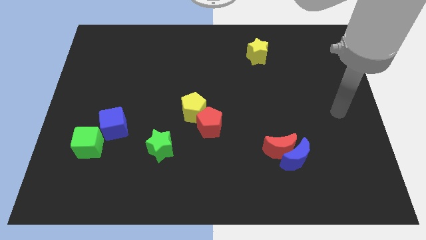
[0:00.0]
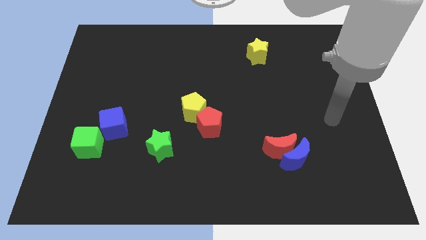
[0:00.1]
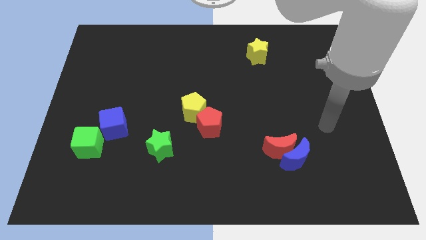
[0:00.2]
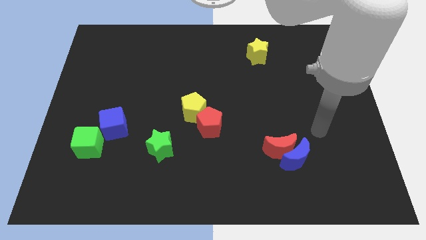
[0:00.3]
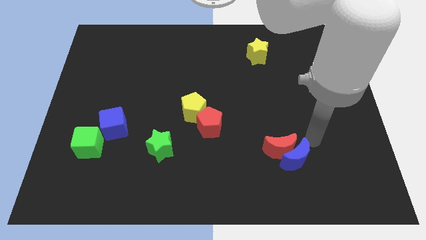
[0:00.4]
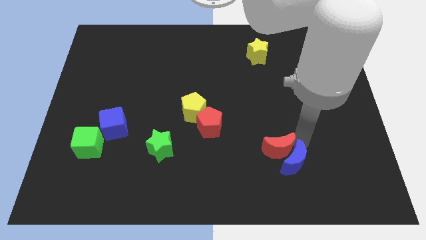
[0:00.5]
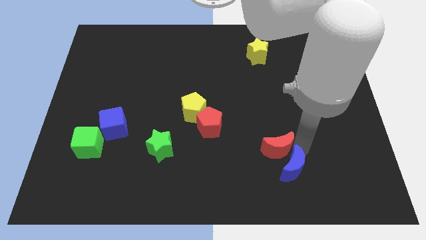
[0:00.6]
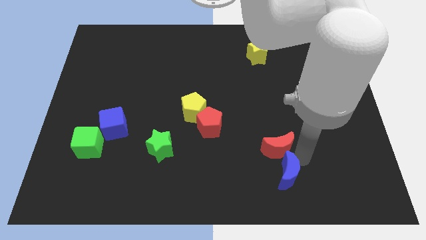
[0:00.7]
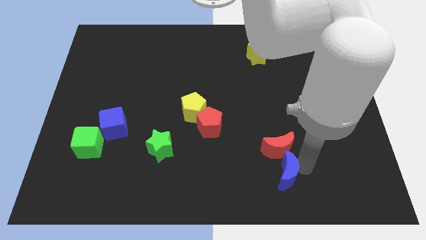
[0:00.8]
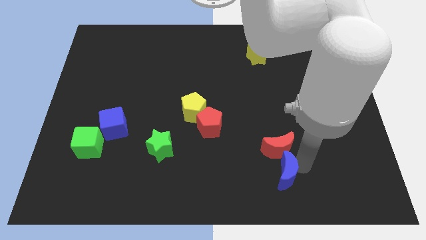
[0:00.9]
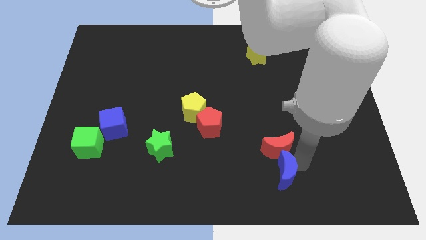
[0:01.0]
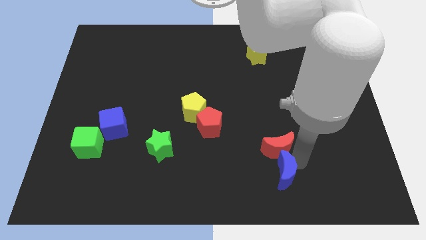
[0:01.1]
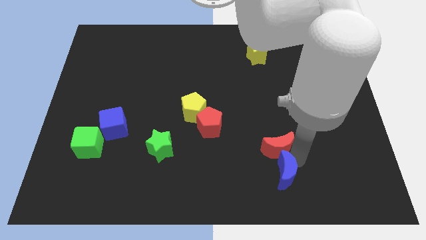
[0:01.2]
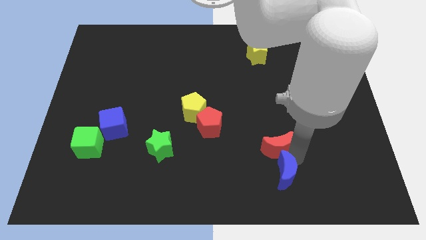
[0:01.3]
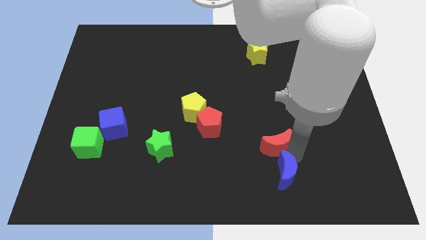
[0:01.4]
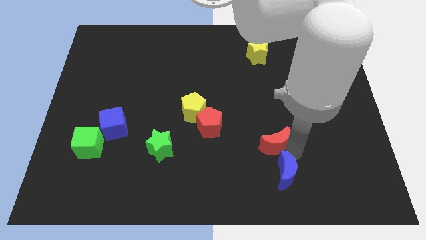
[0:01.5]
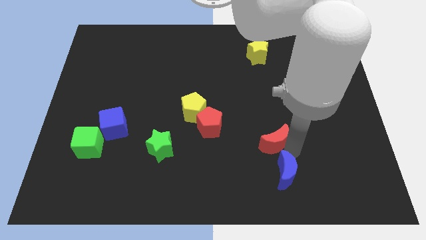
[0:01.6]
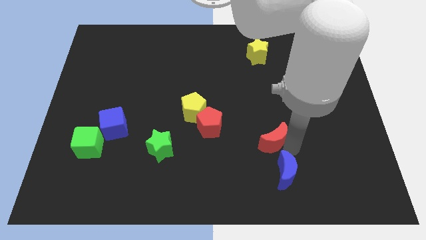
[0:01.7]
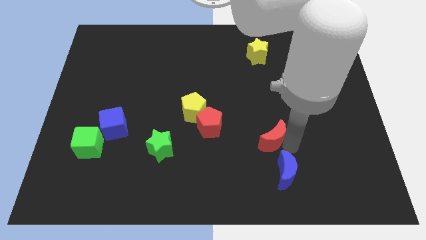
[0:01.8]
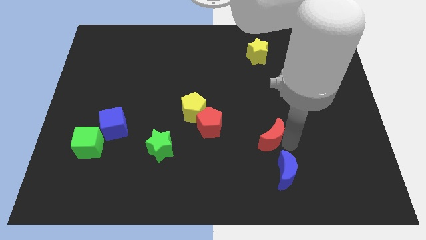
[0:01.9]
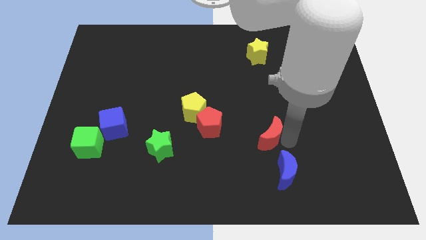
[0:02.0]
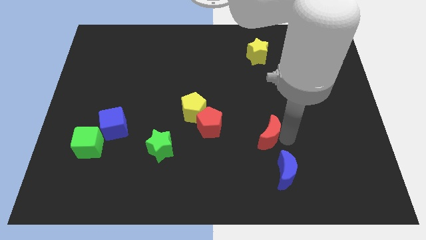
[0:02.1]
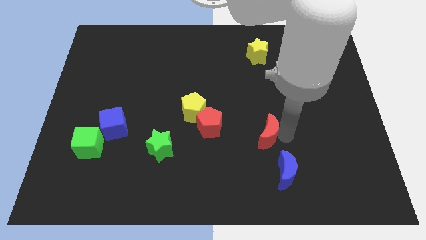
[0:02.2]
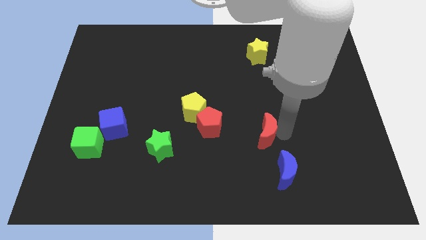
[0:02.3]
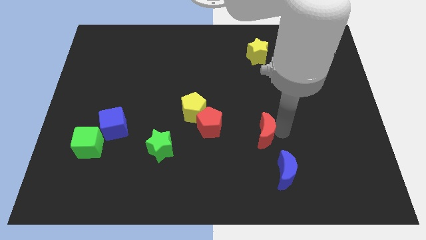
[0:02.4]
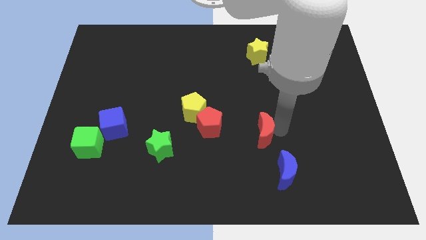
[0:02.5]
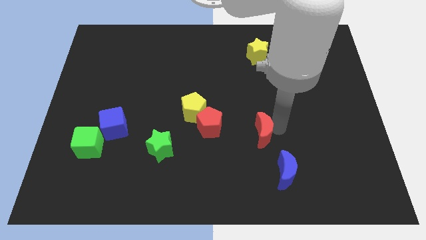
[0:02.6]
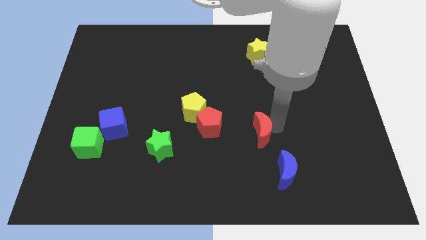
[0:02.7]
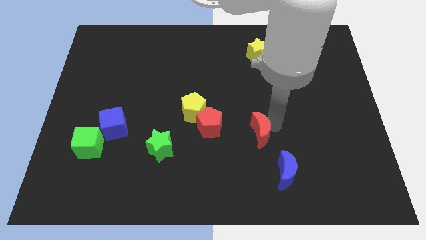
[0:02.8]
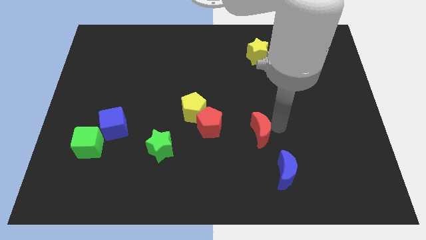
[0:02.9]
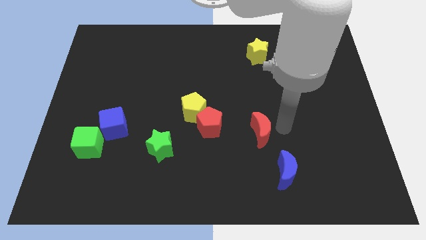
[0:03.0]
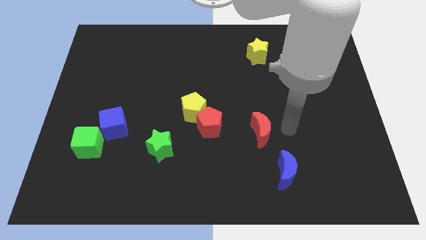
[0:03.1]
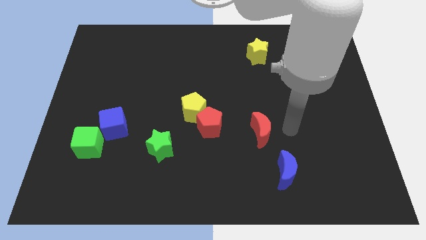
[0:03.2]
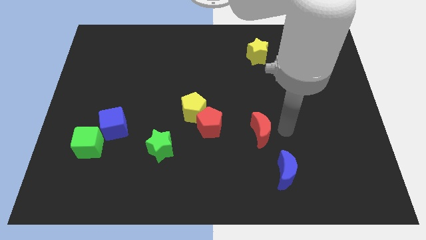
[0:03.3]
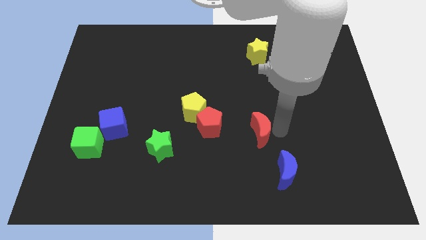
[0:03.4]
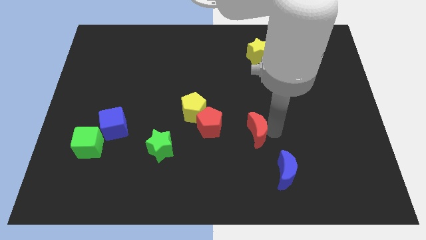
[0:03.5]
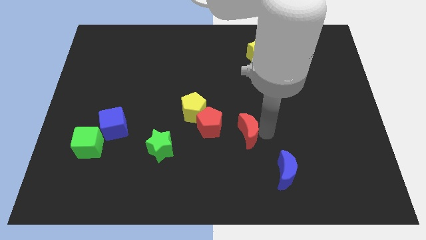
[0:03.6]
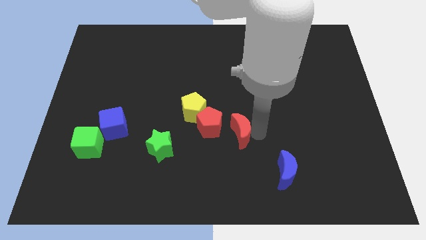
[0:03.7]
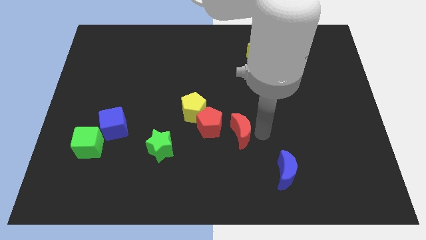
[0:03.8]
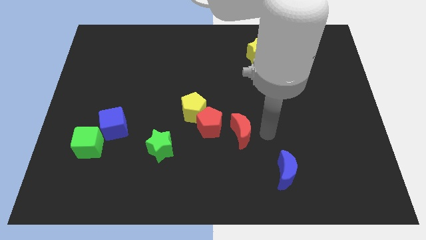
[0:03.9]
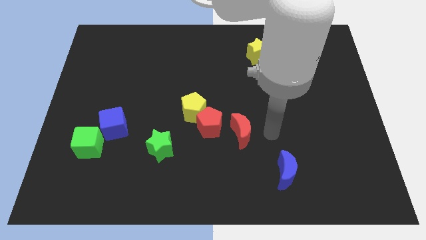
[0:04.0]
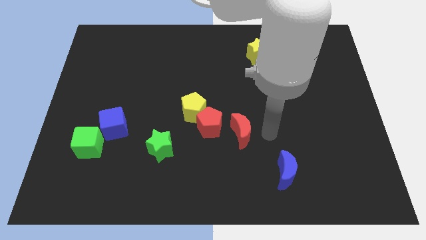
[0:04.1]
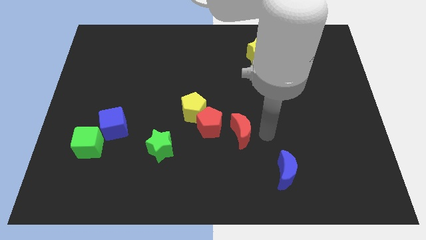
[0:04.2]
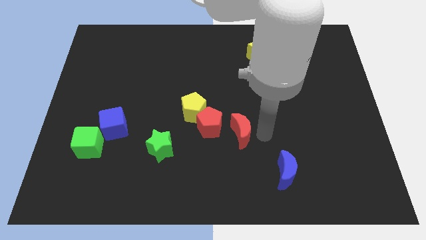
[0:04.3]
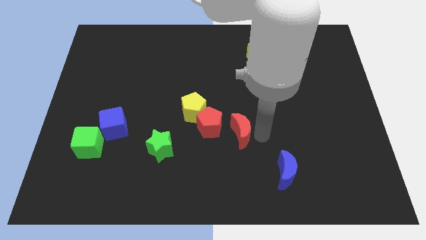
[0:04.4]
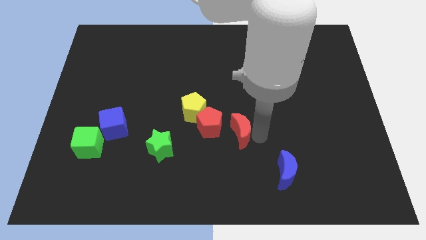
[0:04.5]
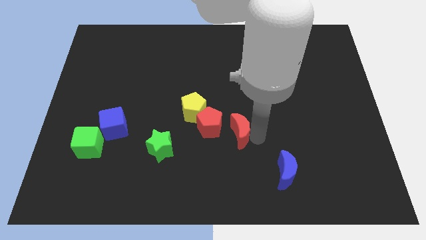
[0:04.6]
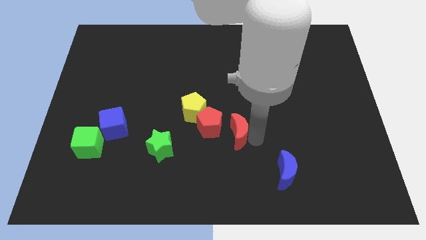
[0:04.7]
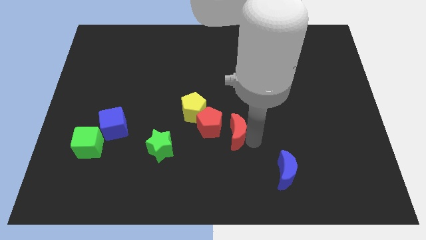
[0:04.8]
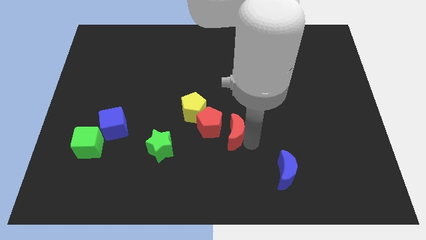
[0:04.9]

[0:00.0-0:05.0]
slide the red moon next to the red pentagon

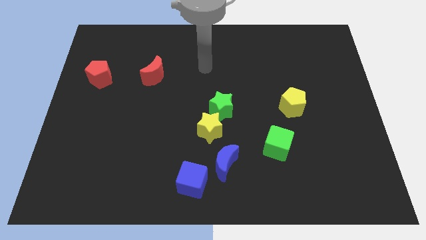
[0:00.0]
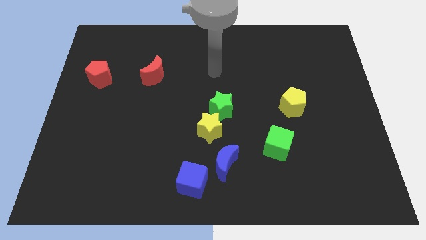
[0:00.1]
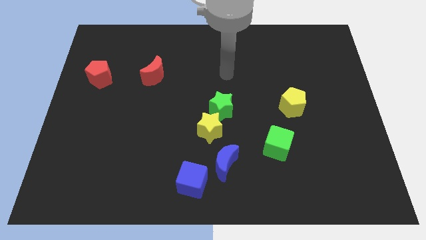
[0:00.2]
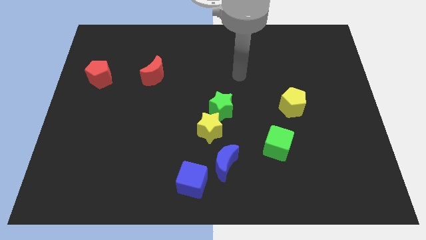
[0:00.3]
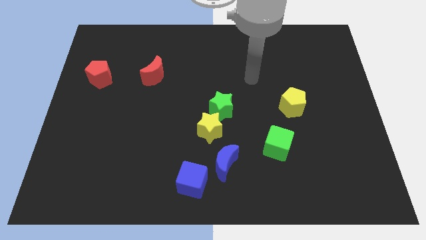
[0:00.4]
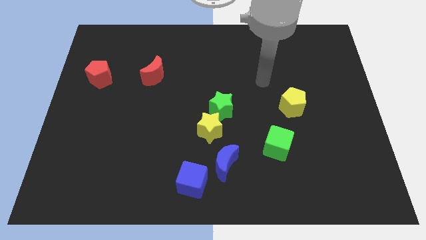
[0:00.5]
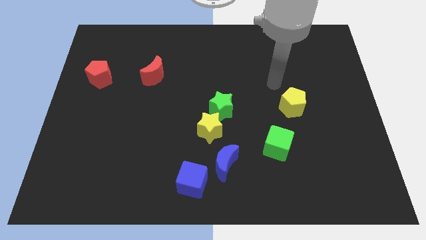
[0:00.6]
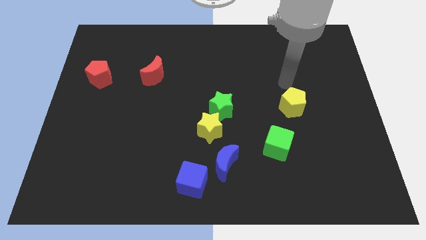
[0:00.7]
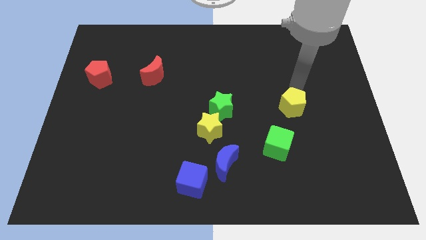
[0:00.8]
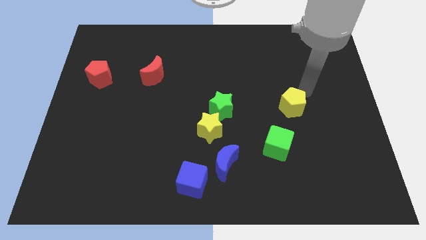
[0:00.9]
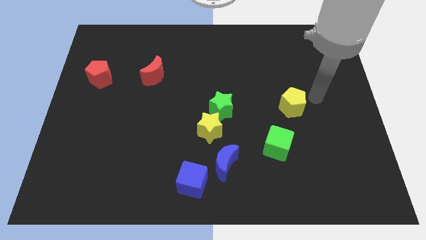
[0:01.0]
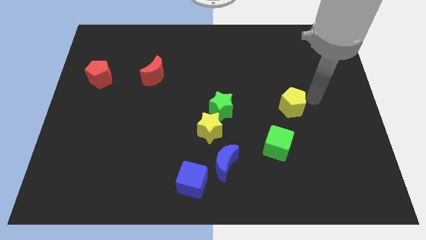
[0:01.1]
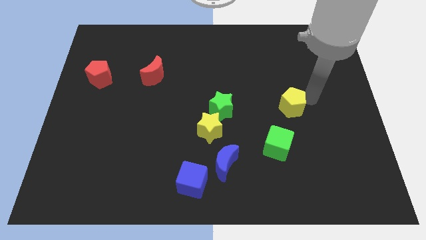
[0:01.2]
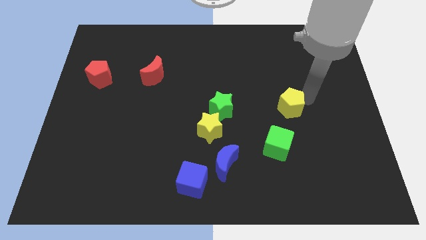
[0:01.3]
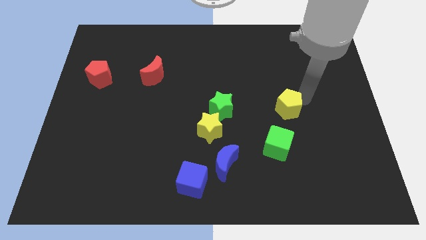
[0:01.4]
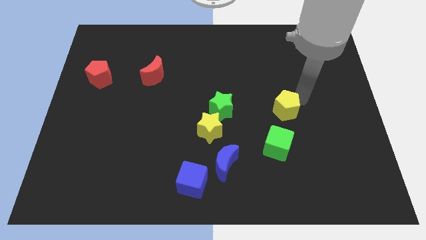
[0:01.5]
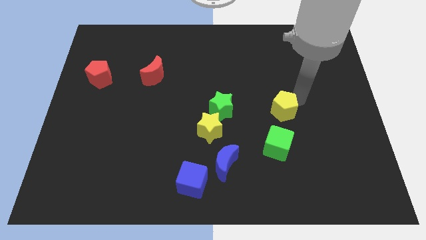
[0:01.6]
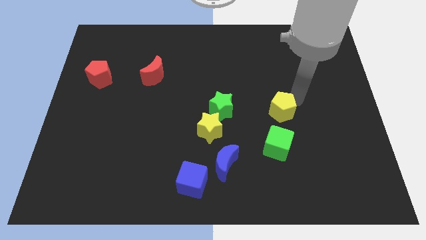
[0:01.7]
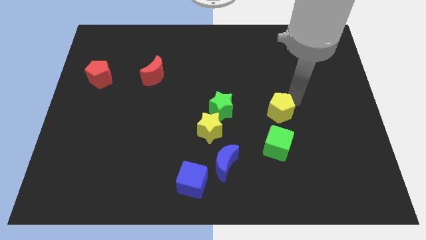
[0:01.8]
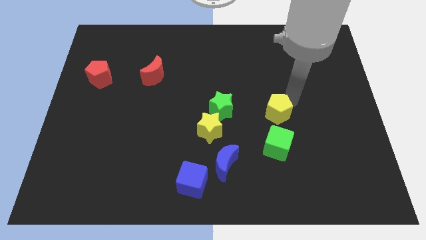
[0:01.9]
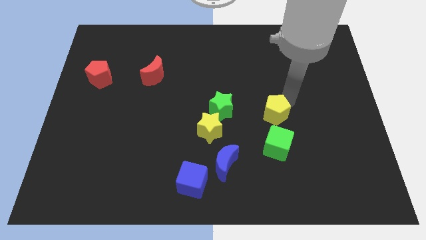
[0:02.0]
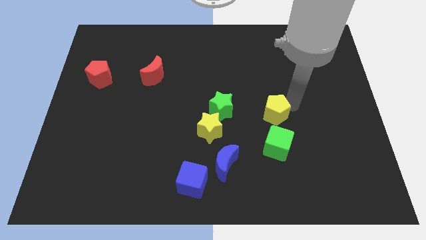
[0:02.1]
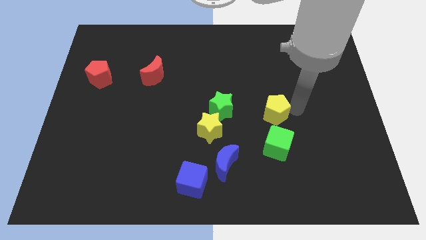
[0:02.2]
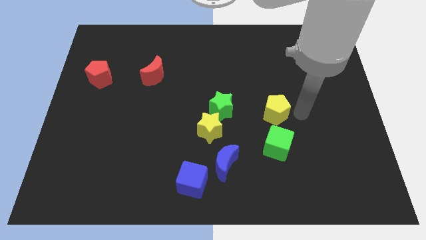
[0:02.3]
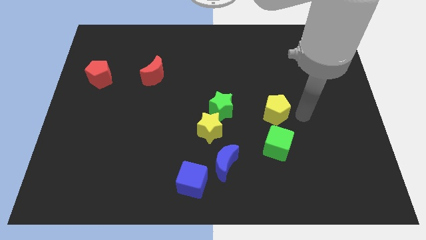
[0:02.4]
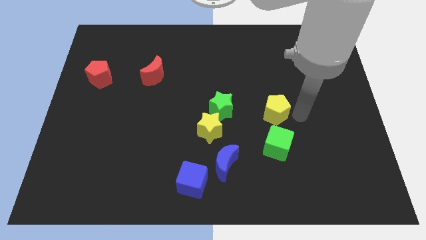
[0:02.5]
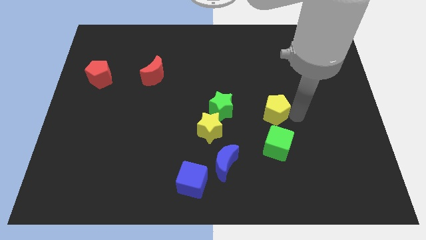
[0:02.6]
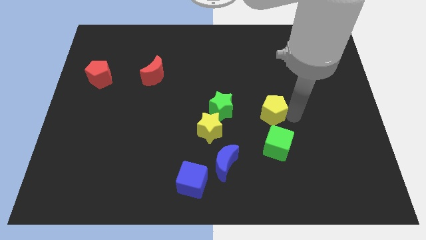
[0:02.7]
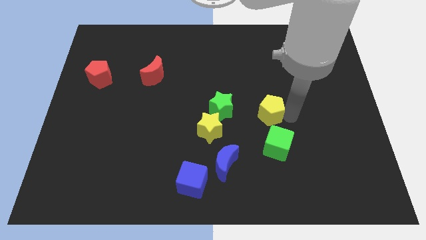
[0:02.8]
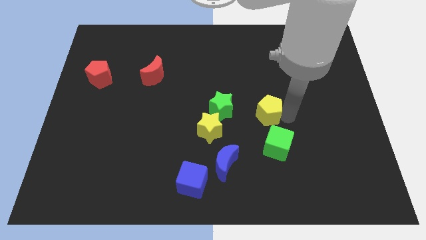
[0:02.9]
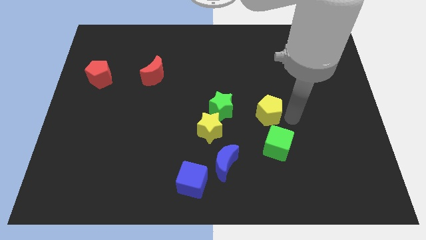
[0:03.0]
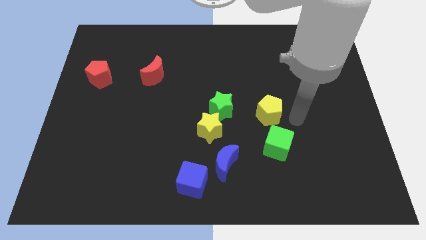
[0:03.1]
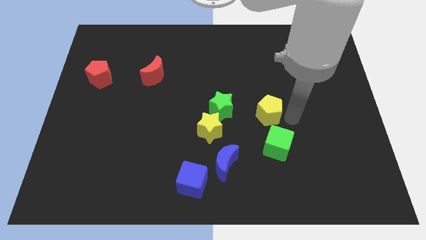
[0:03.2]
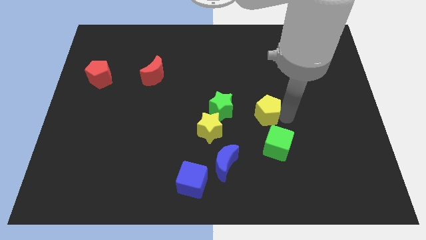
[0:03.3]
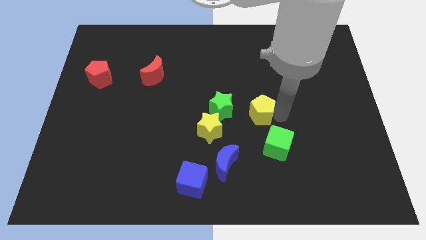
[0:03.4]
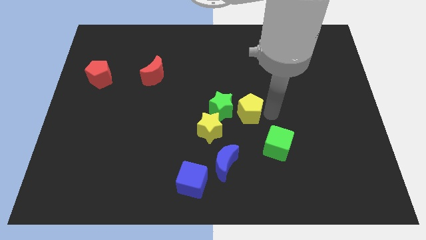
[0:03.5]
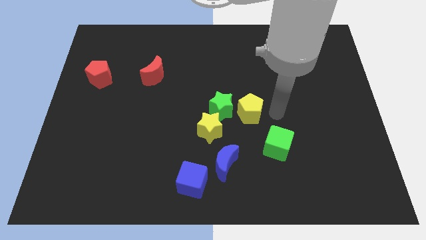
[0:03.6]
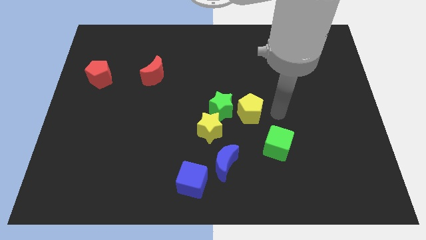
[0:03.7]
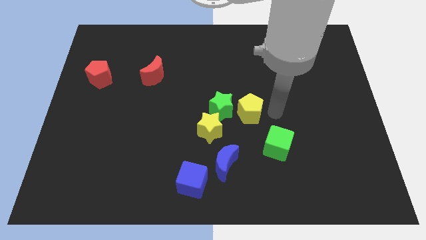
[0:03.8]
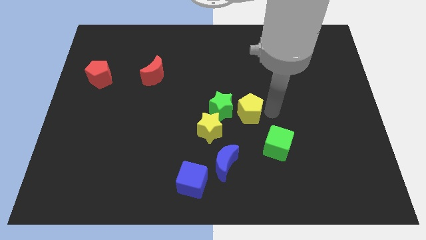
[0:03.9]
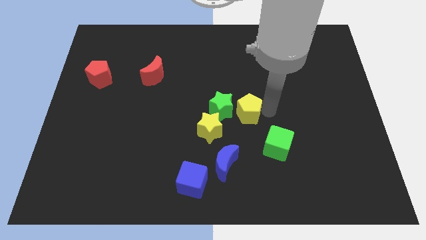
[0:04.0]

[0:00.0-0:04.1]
slide the yellow pentagon close to the green star
